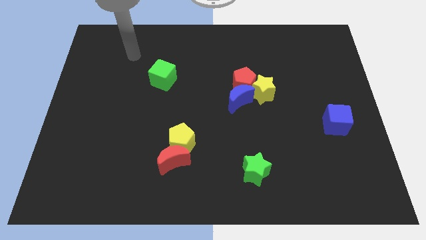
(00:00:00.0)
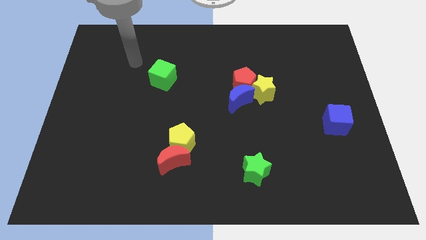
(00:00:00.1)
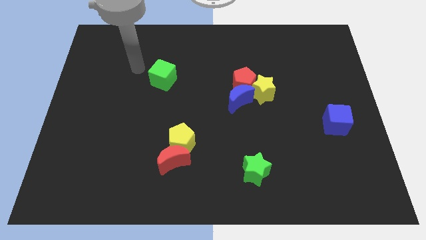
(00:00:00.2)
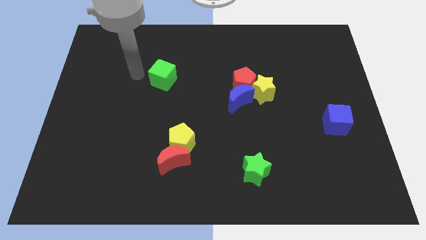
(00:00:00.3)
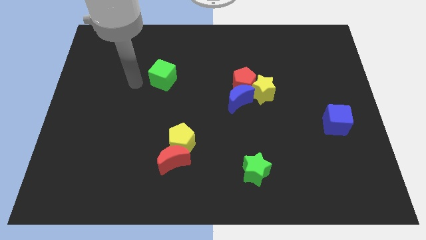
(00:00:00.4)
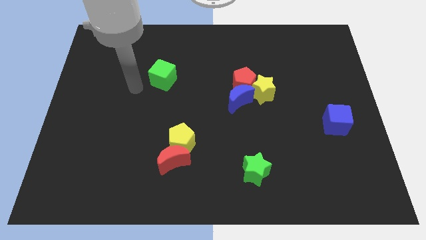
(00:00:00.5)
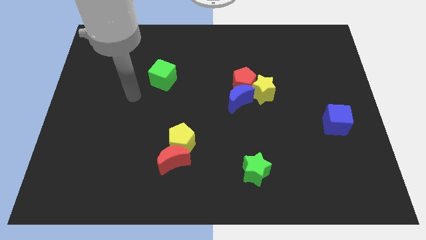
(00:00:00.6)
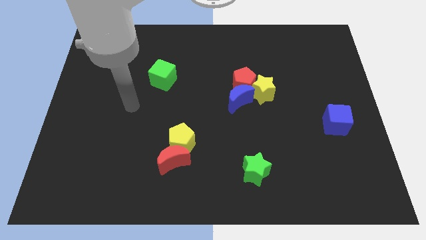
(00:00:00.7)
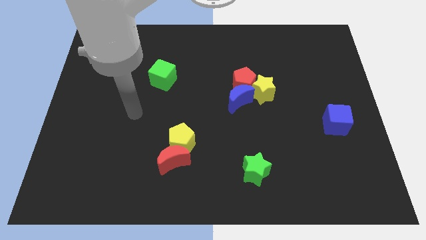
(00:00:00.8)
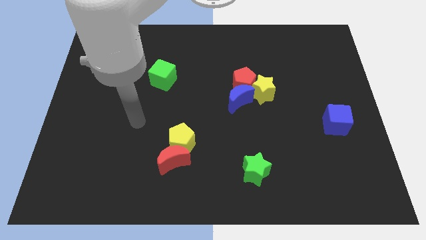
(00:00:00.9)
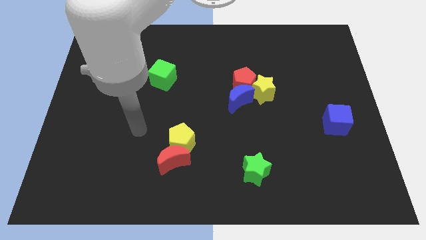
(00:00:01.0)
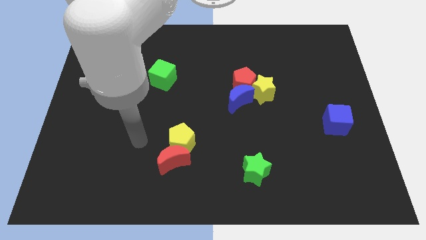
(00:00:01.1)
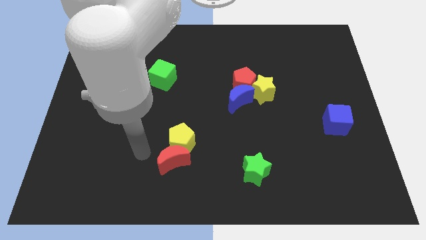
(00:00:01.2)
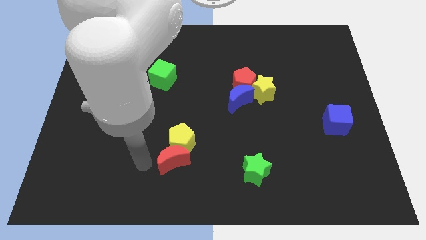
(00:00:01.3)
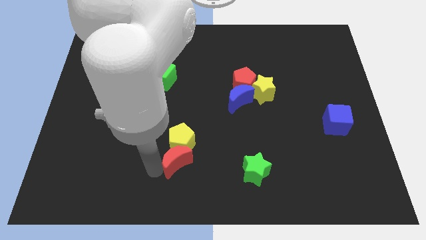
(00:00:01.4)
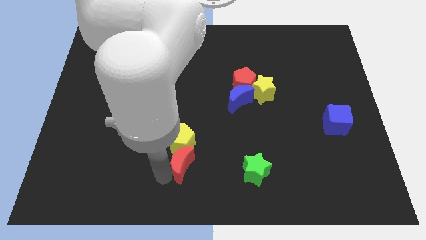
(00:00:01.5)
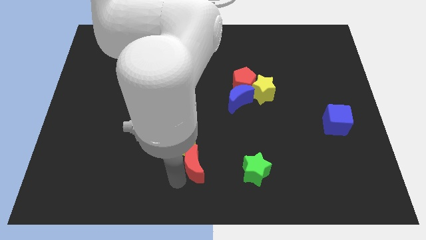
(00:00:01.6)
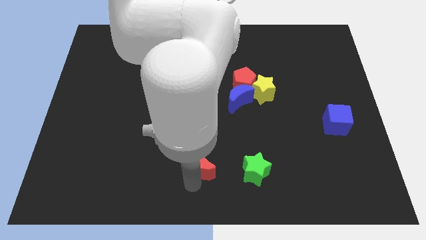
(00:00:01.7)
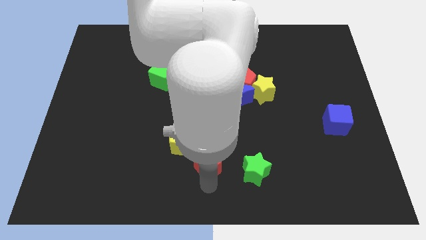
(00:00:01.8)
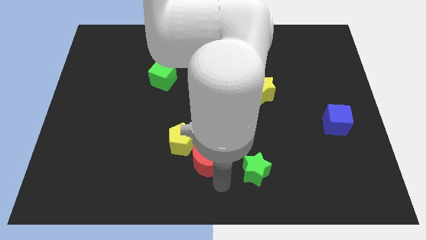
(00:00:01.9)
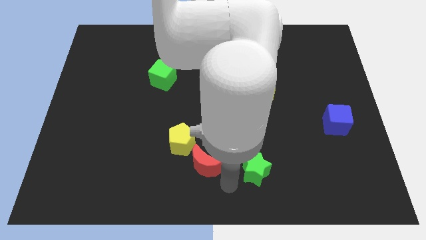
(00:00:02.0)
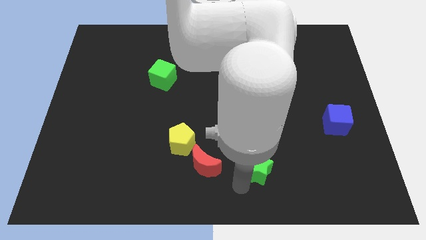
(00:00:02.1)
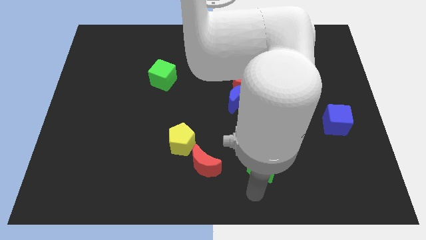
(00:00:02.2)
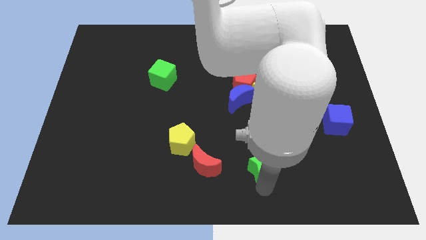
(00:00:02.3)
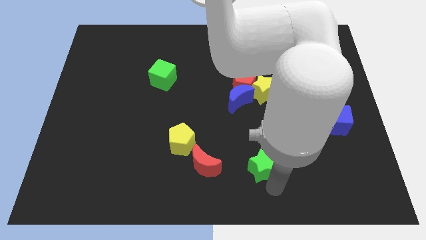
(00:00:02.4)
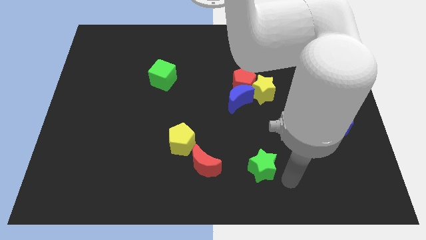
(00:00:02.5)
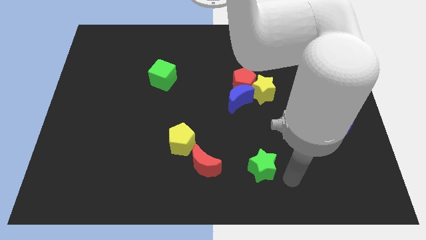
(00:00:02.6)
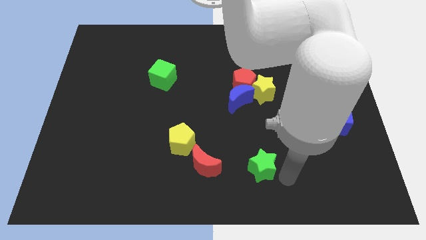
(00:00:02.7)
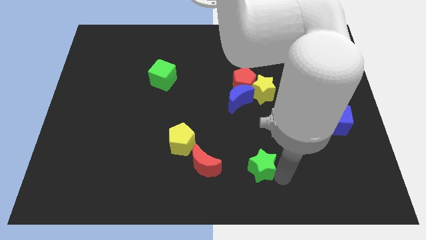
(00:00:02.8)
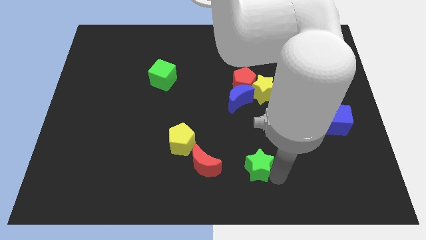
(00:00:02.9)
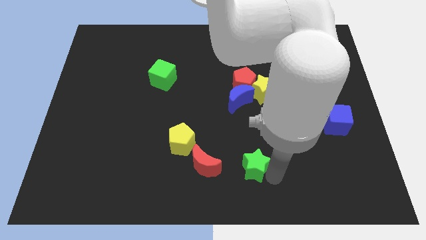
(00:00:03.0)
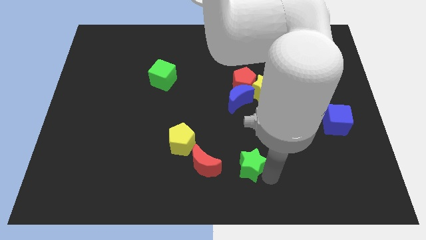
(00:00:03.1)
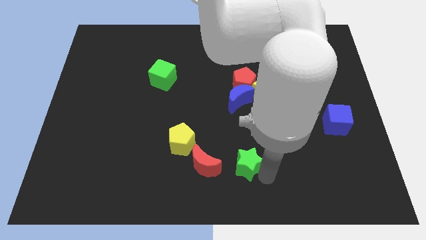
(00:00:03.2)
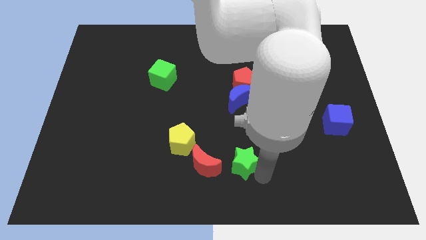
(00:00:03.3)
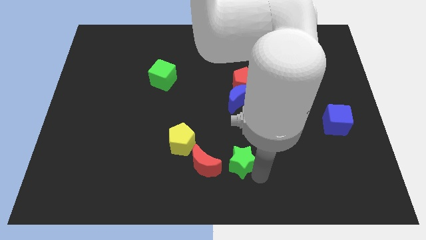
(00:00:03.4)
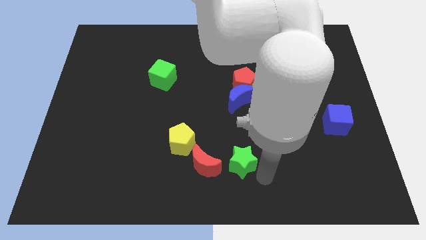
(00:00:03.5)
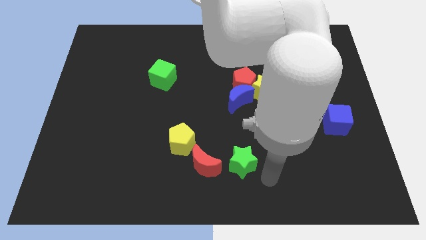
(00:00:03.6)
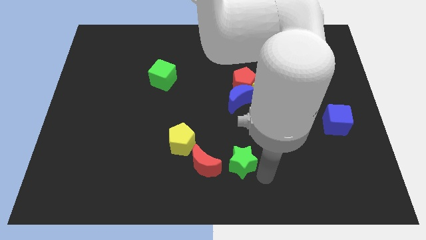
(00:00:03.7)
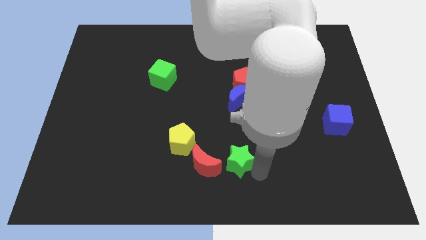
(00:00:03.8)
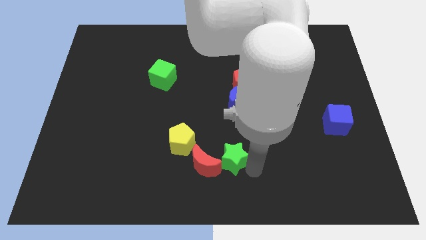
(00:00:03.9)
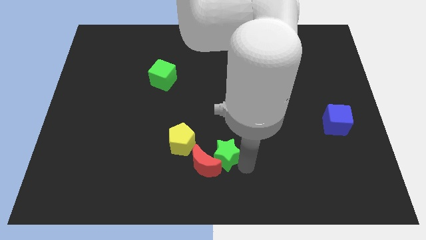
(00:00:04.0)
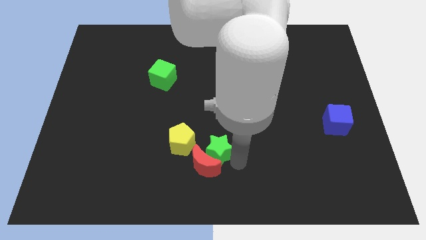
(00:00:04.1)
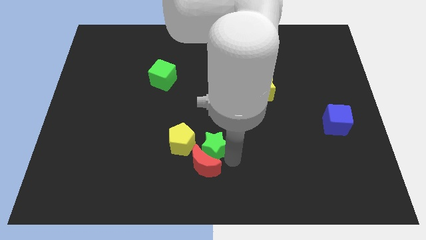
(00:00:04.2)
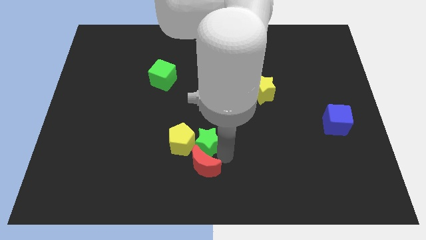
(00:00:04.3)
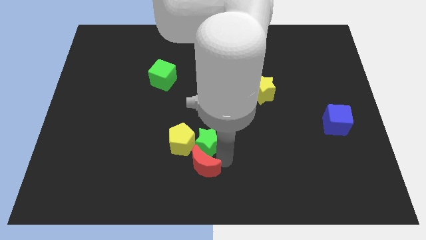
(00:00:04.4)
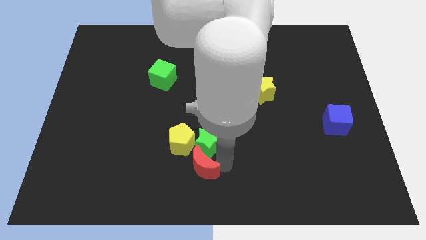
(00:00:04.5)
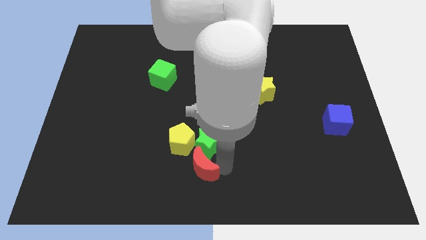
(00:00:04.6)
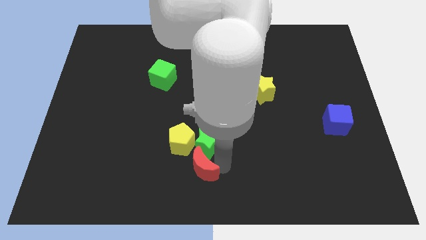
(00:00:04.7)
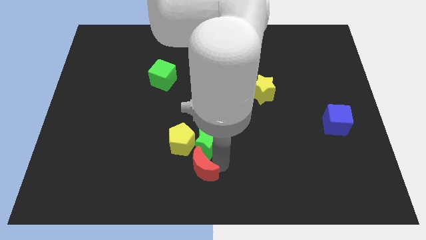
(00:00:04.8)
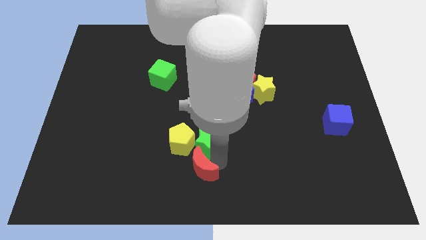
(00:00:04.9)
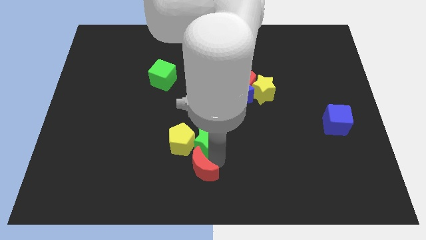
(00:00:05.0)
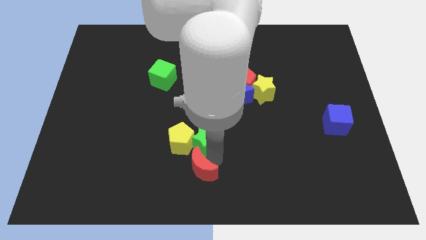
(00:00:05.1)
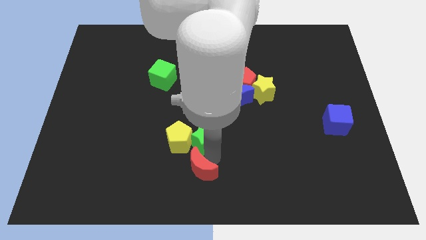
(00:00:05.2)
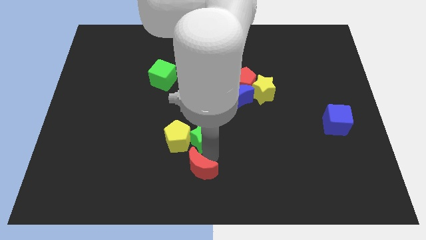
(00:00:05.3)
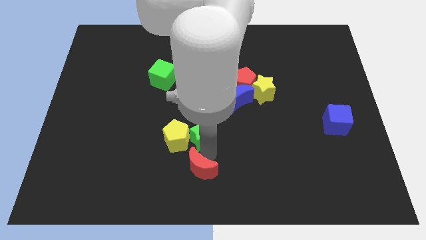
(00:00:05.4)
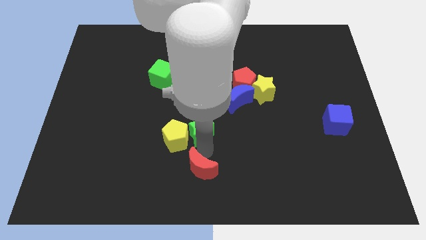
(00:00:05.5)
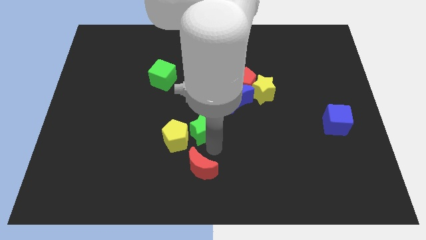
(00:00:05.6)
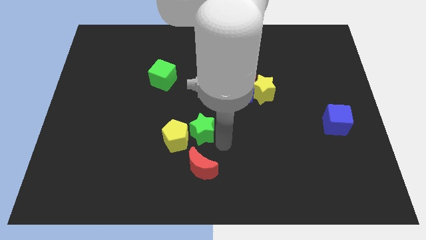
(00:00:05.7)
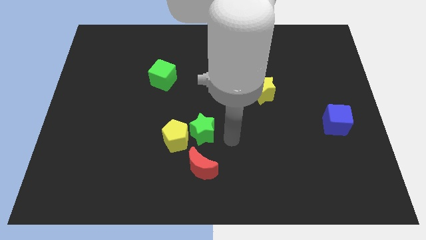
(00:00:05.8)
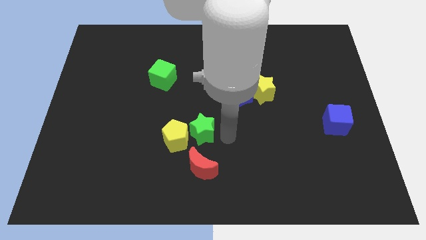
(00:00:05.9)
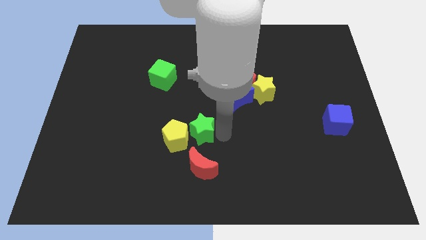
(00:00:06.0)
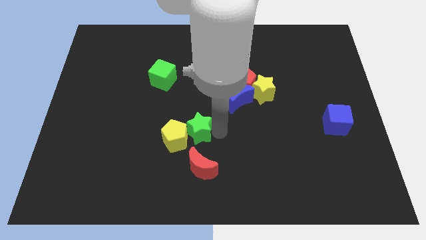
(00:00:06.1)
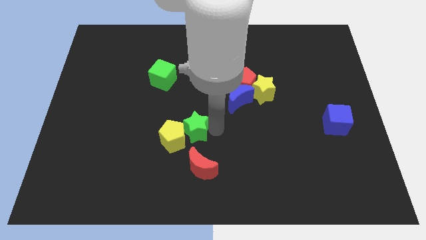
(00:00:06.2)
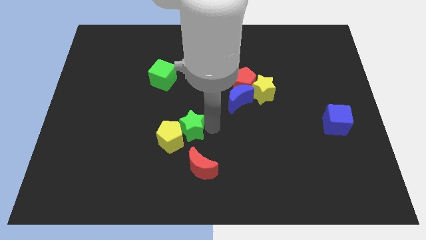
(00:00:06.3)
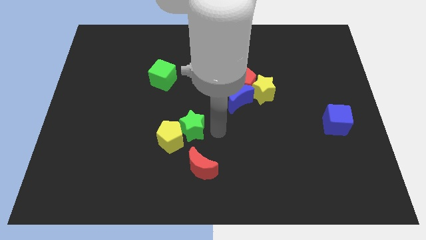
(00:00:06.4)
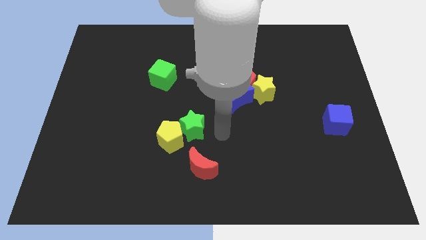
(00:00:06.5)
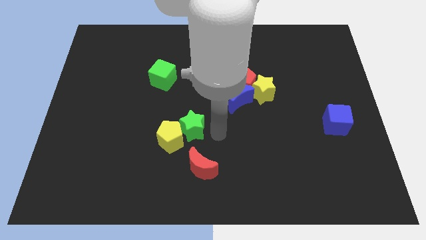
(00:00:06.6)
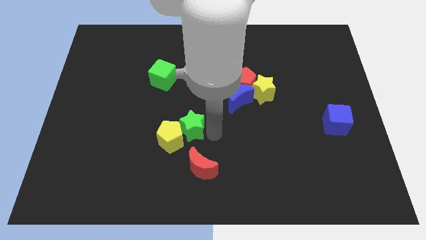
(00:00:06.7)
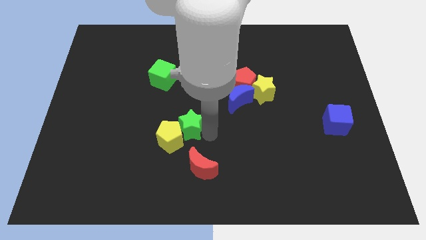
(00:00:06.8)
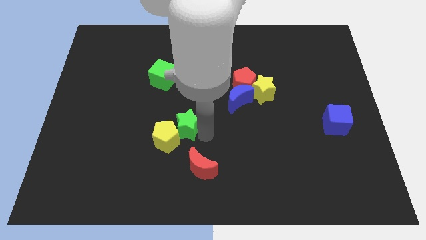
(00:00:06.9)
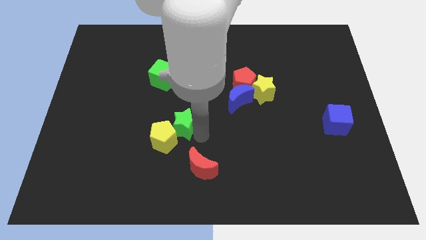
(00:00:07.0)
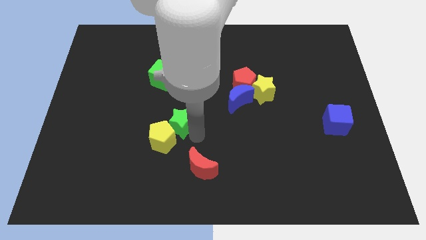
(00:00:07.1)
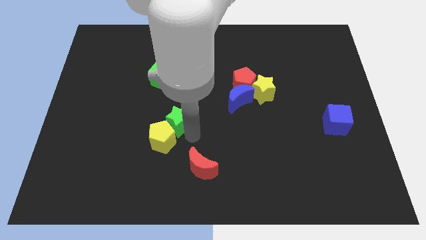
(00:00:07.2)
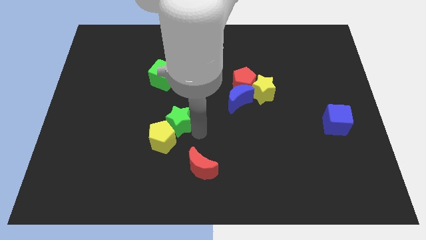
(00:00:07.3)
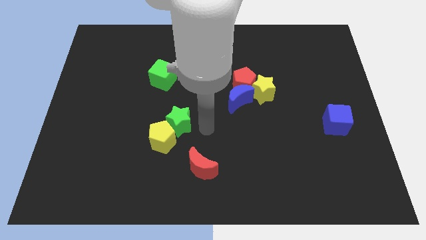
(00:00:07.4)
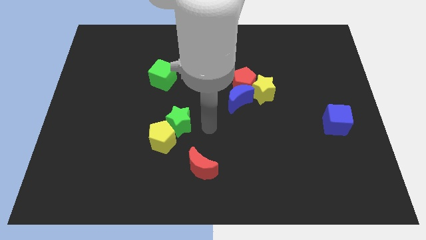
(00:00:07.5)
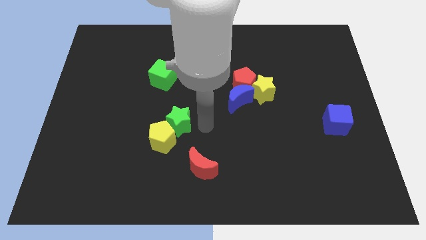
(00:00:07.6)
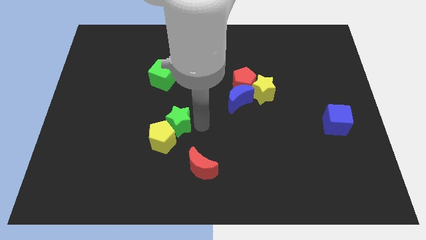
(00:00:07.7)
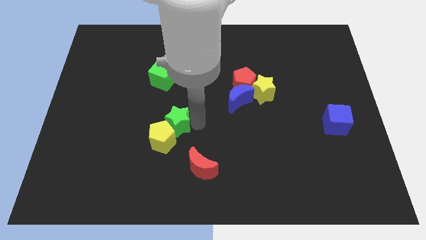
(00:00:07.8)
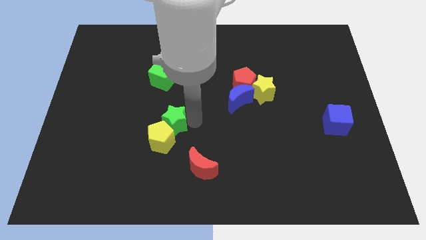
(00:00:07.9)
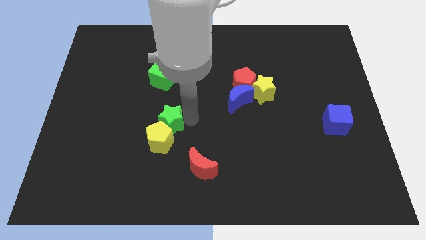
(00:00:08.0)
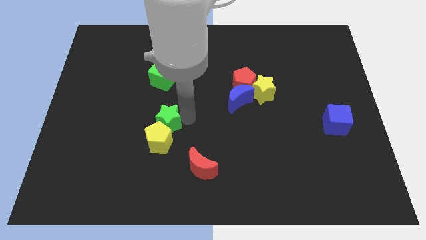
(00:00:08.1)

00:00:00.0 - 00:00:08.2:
push the green star to the top left side of the yellow pentagon
